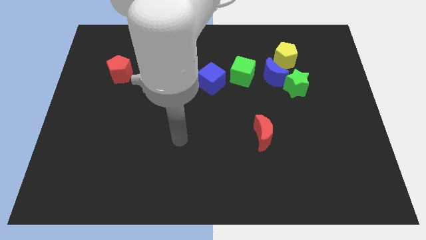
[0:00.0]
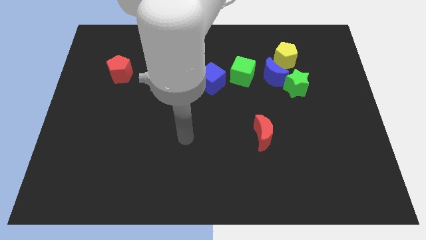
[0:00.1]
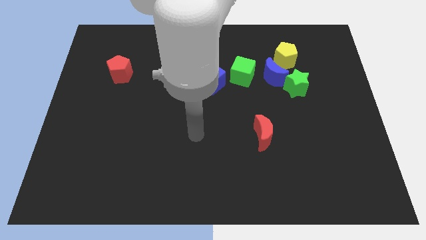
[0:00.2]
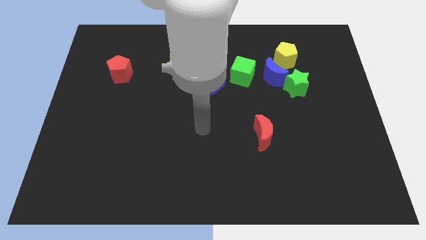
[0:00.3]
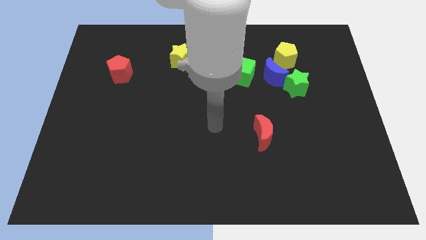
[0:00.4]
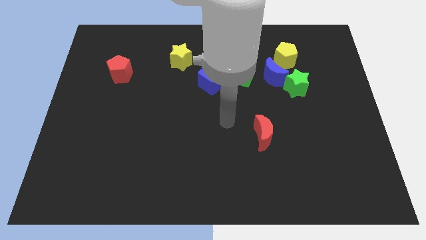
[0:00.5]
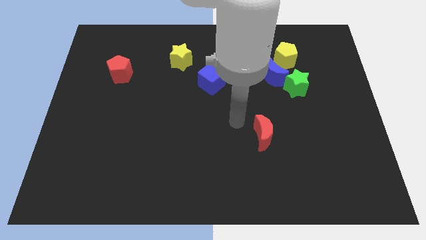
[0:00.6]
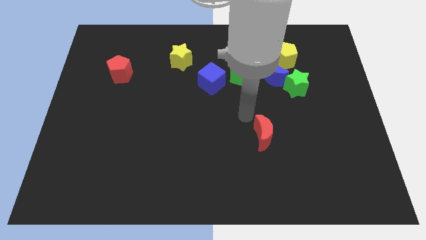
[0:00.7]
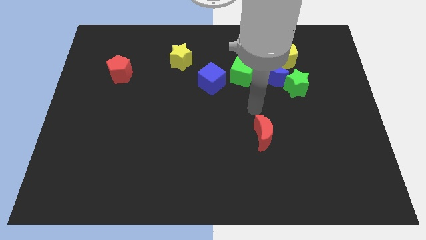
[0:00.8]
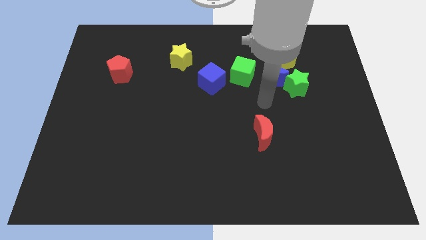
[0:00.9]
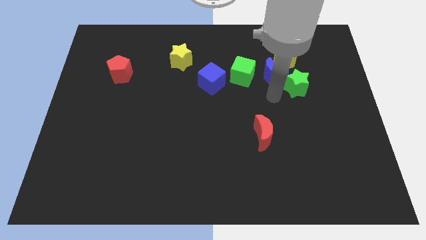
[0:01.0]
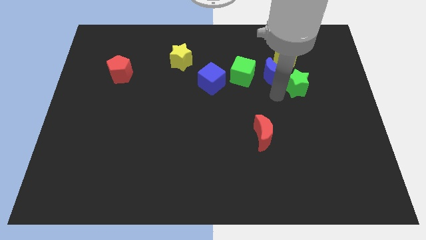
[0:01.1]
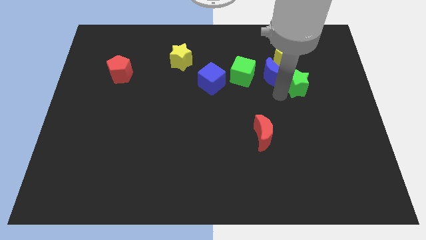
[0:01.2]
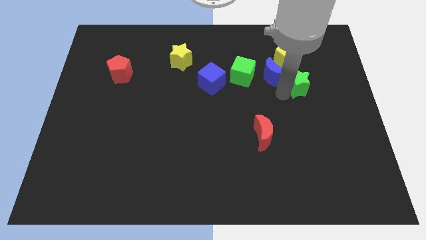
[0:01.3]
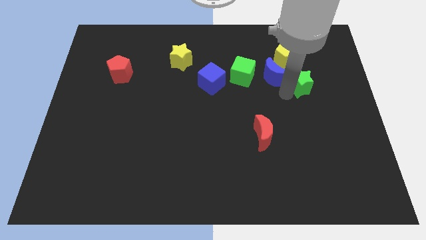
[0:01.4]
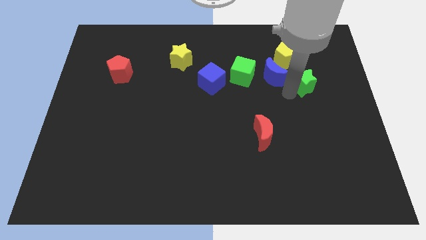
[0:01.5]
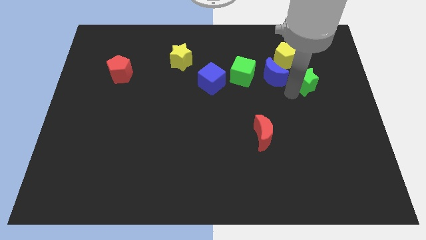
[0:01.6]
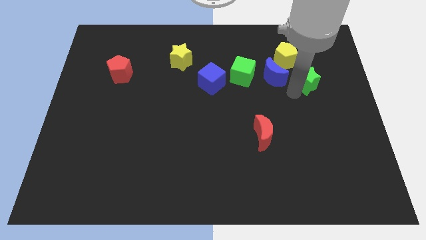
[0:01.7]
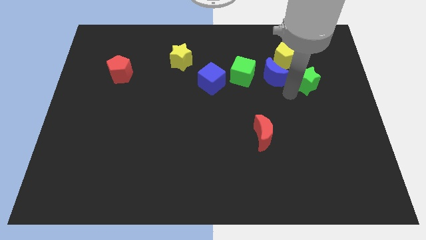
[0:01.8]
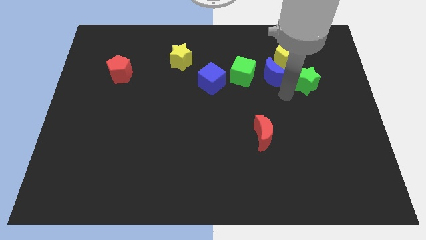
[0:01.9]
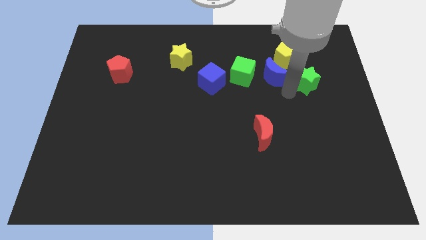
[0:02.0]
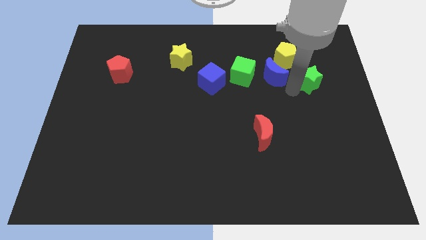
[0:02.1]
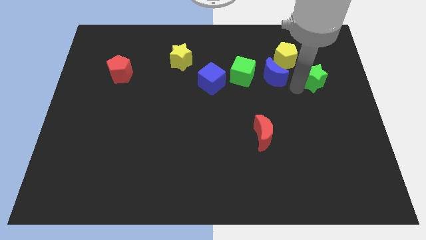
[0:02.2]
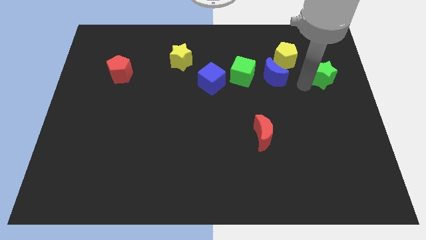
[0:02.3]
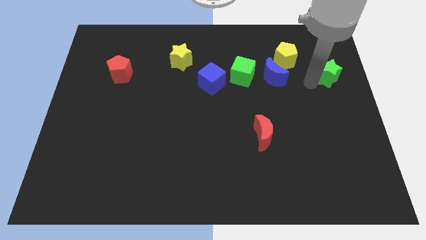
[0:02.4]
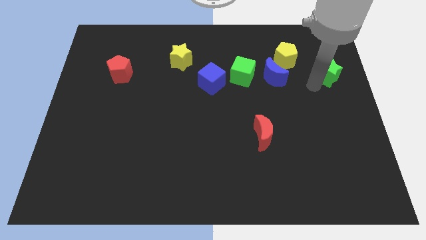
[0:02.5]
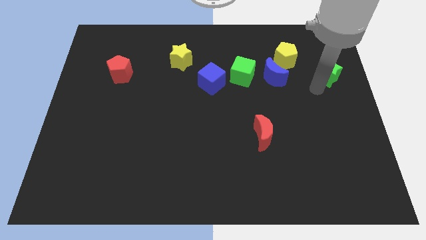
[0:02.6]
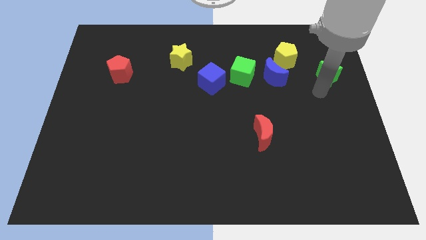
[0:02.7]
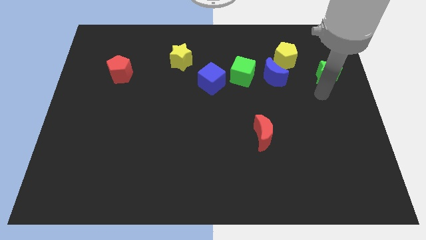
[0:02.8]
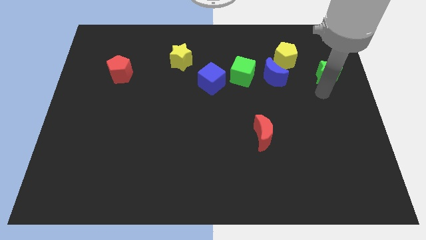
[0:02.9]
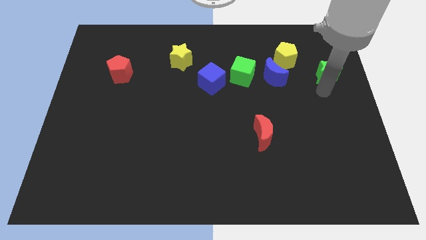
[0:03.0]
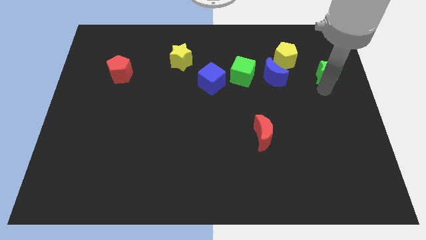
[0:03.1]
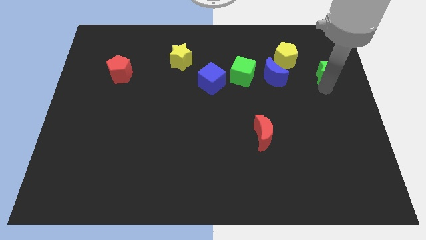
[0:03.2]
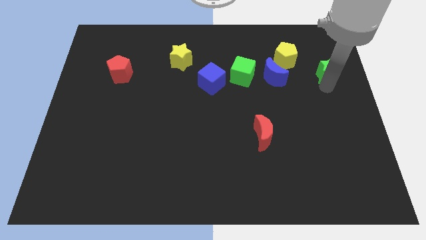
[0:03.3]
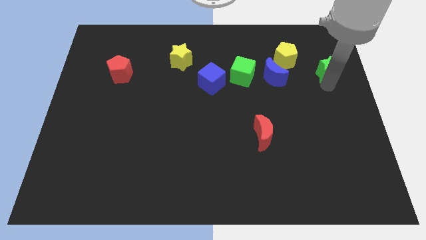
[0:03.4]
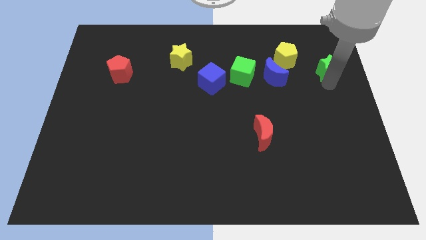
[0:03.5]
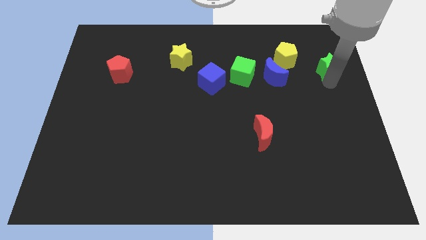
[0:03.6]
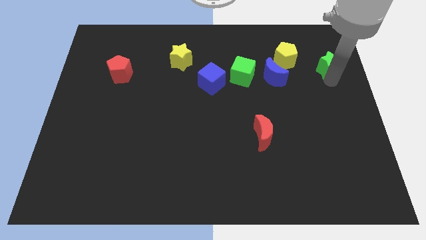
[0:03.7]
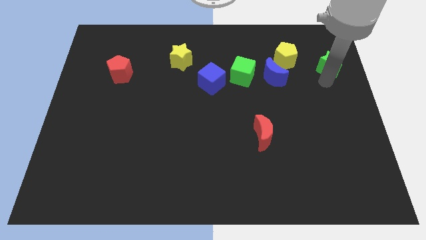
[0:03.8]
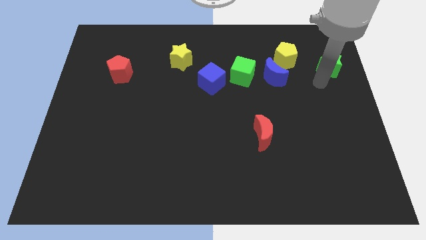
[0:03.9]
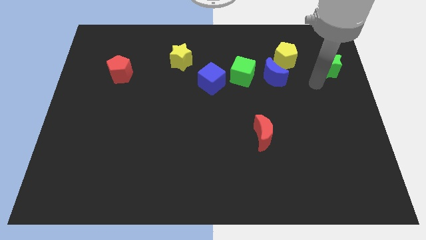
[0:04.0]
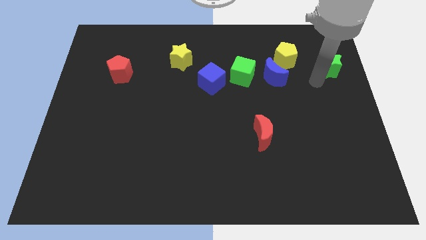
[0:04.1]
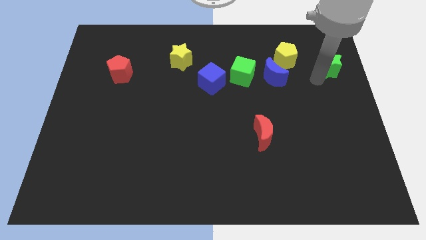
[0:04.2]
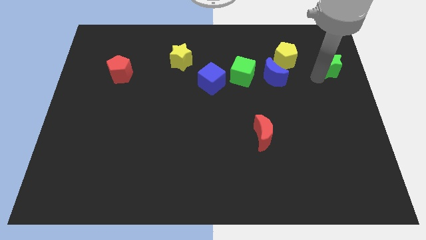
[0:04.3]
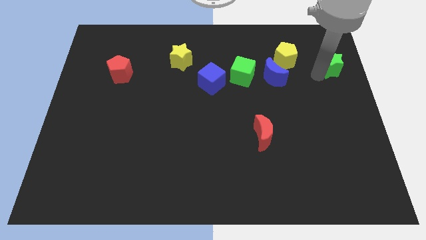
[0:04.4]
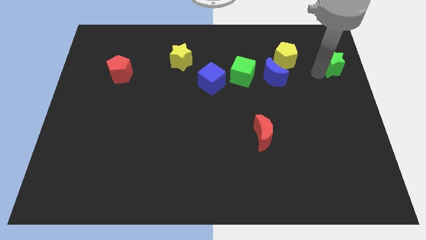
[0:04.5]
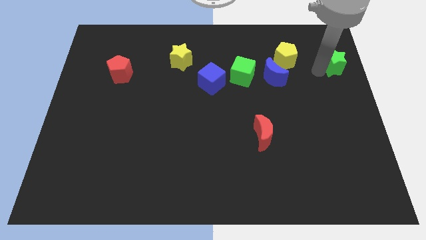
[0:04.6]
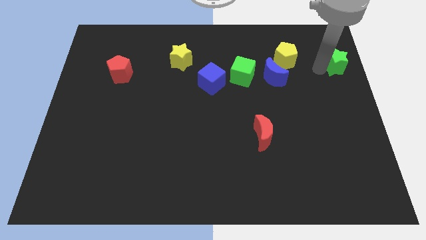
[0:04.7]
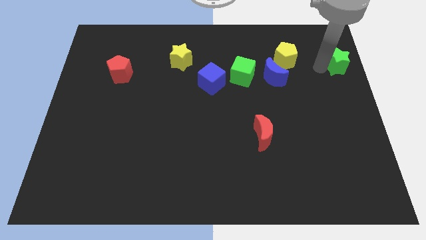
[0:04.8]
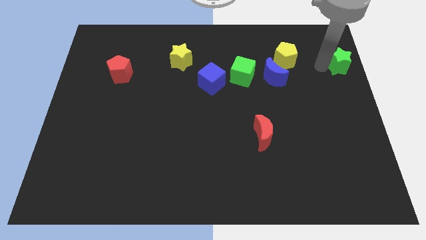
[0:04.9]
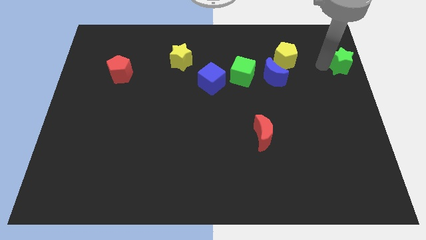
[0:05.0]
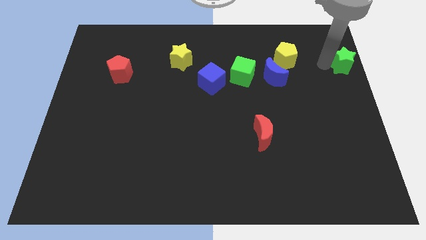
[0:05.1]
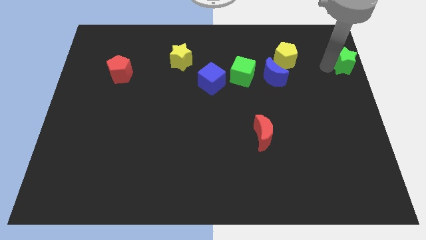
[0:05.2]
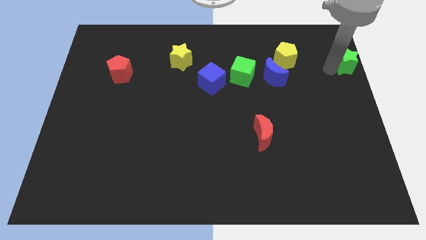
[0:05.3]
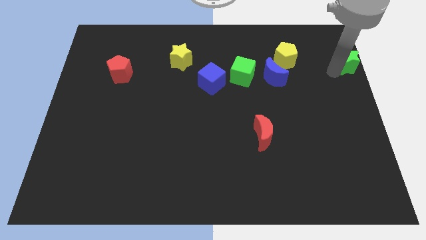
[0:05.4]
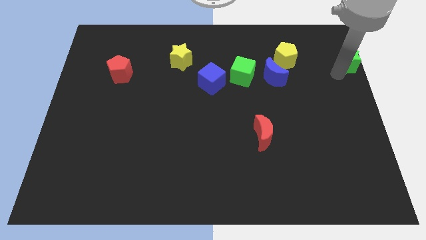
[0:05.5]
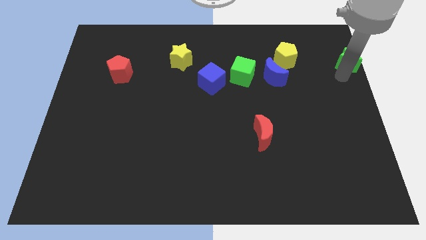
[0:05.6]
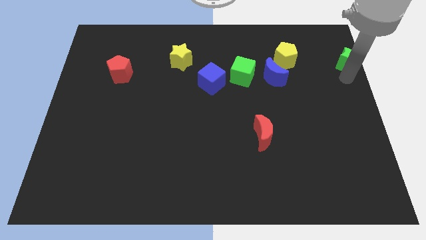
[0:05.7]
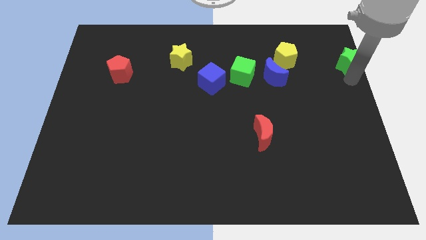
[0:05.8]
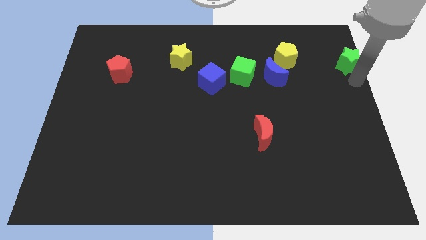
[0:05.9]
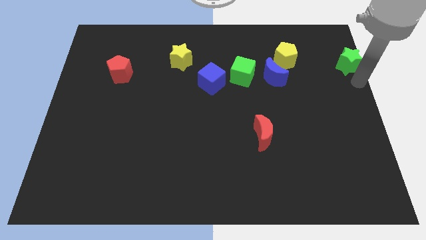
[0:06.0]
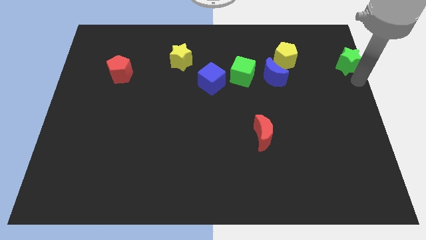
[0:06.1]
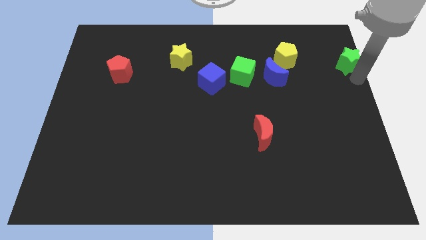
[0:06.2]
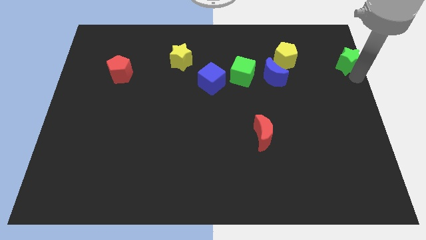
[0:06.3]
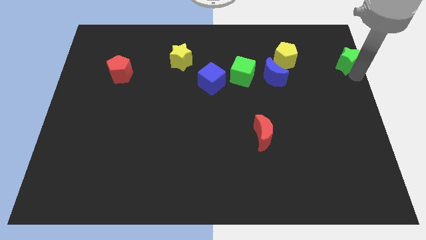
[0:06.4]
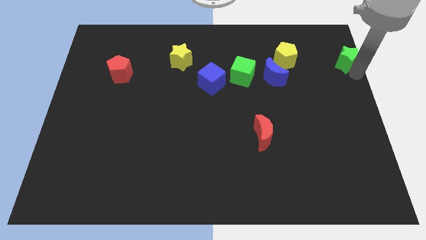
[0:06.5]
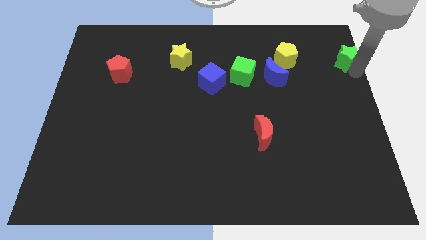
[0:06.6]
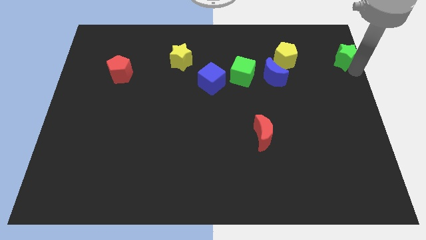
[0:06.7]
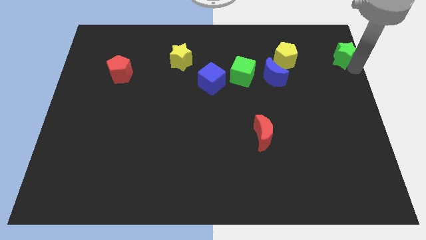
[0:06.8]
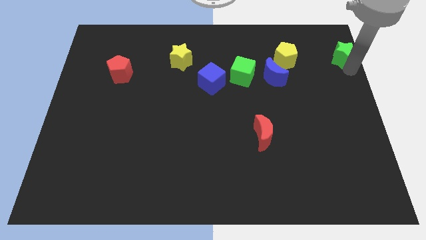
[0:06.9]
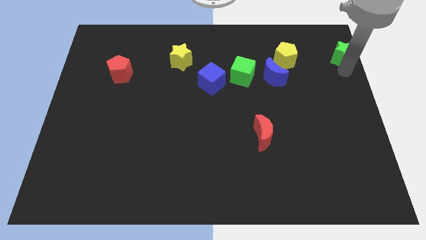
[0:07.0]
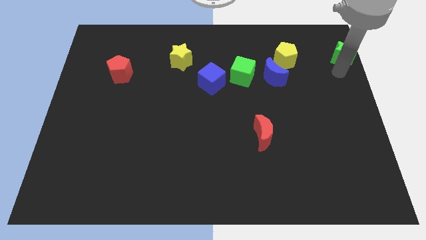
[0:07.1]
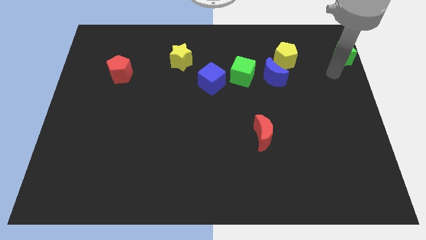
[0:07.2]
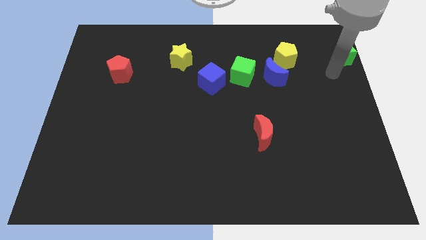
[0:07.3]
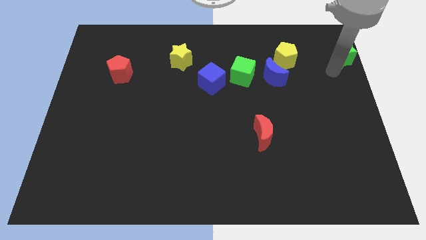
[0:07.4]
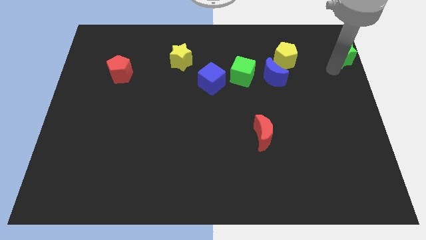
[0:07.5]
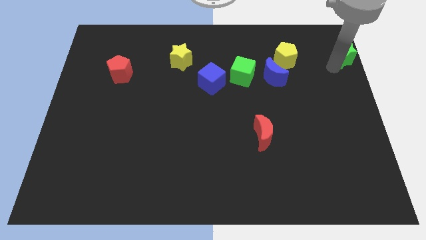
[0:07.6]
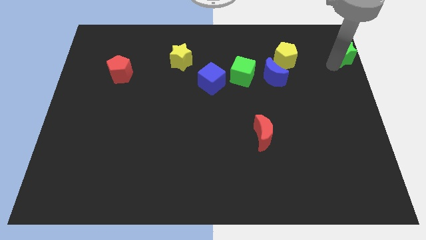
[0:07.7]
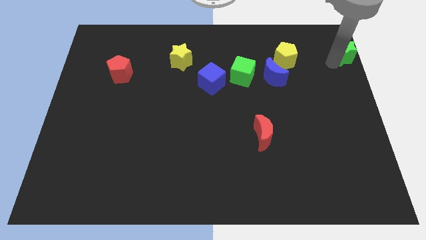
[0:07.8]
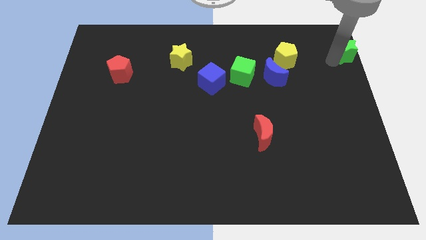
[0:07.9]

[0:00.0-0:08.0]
put the green star to the top right
